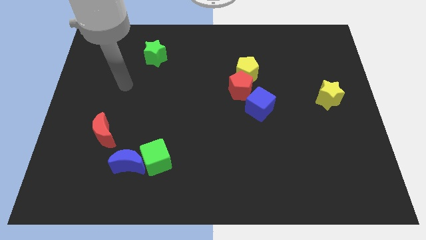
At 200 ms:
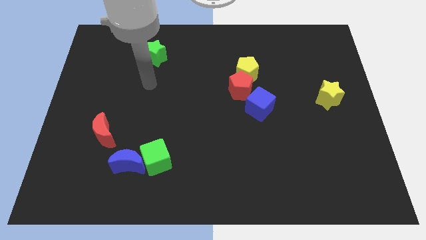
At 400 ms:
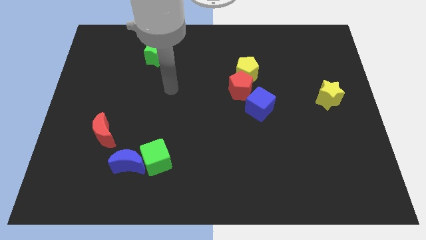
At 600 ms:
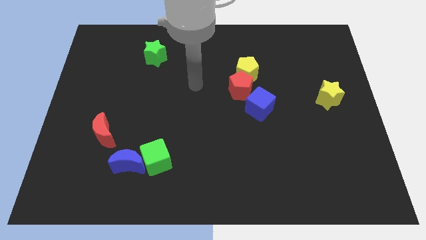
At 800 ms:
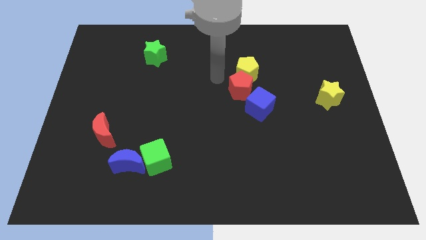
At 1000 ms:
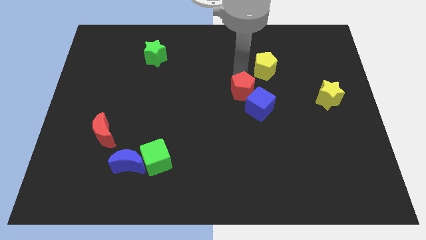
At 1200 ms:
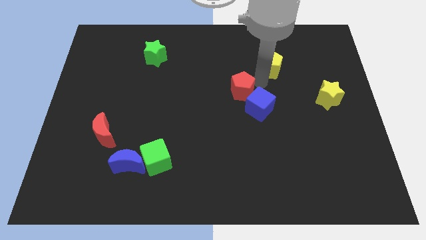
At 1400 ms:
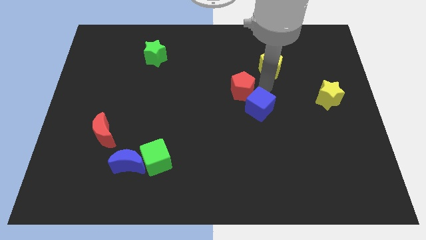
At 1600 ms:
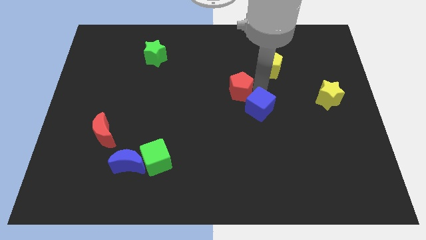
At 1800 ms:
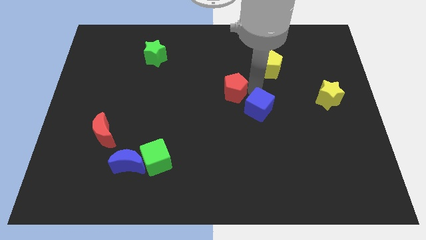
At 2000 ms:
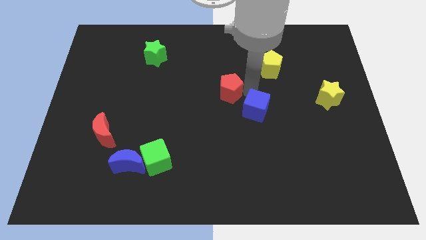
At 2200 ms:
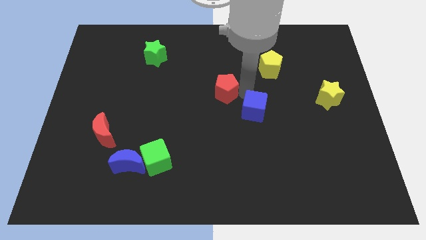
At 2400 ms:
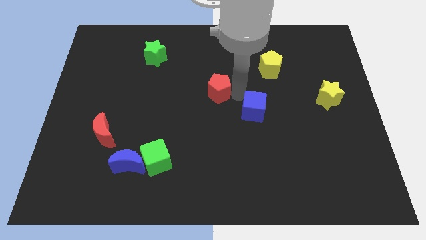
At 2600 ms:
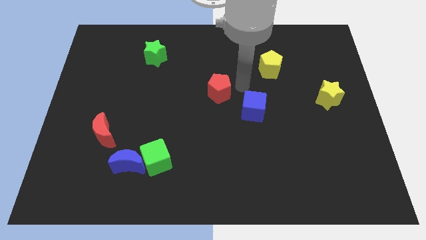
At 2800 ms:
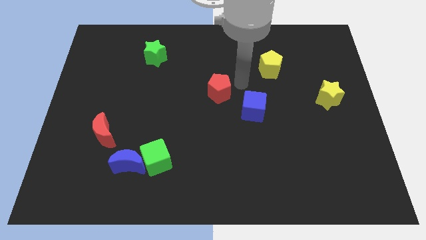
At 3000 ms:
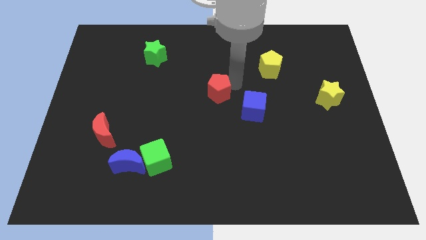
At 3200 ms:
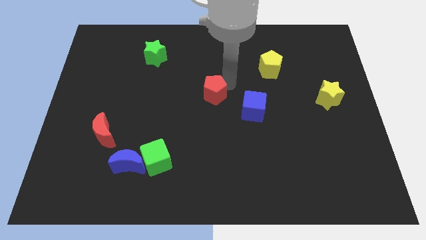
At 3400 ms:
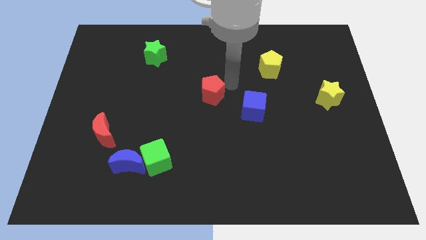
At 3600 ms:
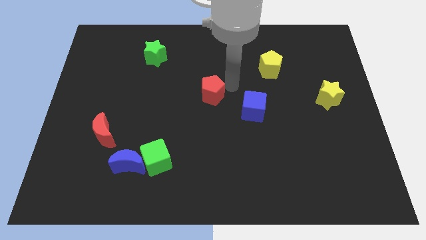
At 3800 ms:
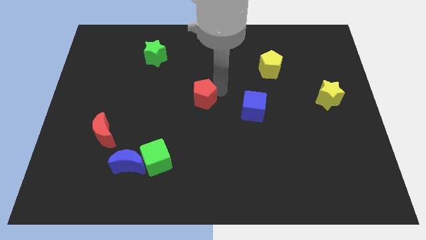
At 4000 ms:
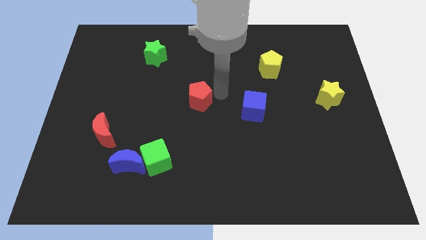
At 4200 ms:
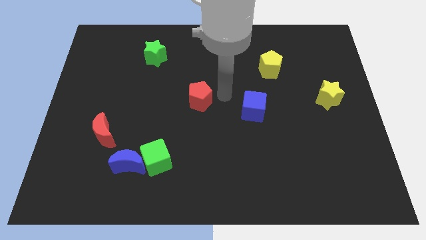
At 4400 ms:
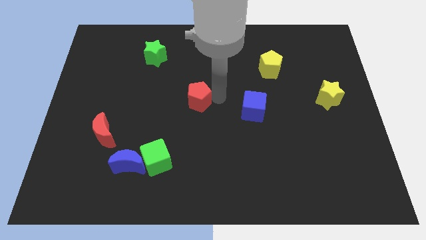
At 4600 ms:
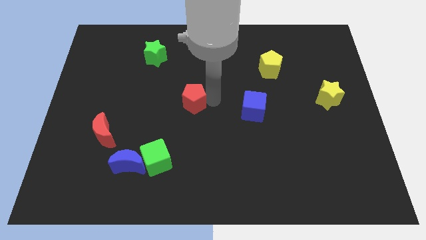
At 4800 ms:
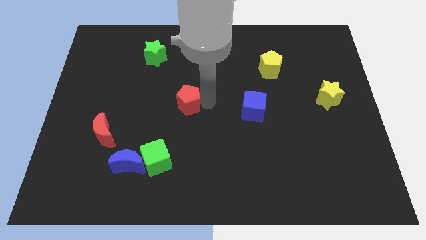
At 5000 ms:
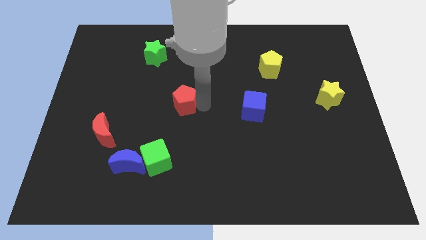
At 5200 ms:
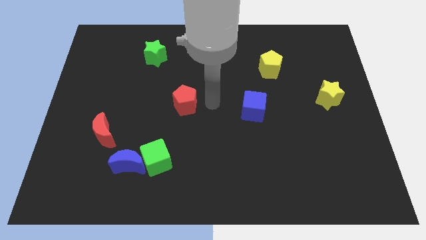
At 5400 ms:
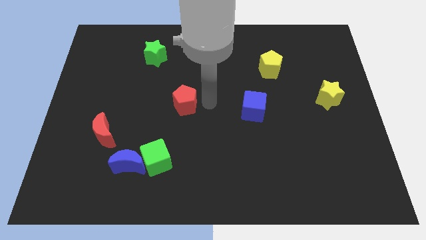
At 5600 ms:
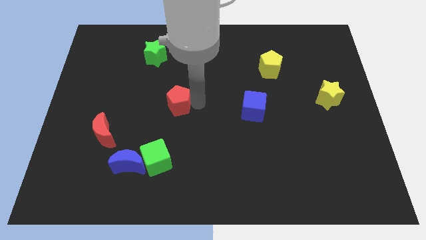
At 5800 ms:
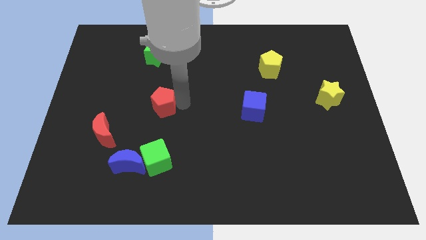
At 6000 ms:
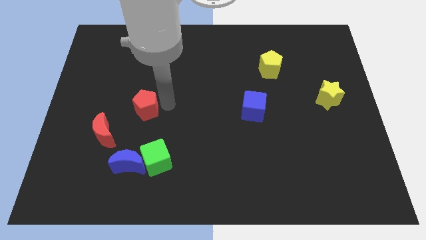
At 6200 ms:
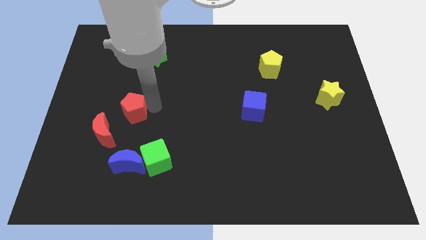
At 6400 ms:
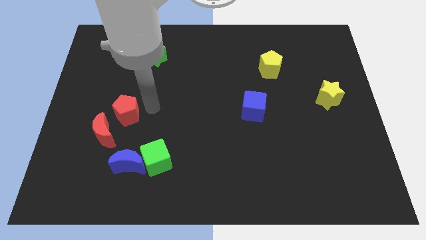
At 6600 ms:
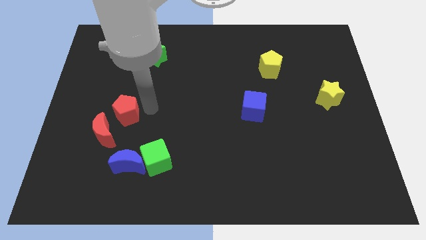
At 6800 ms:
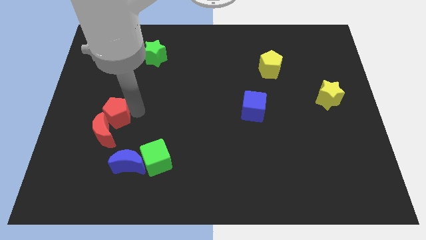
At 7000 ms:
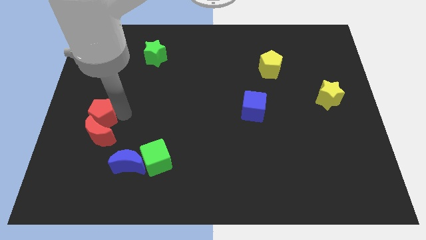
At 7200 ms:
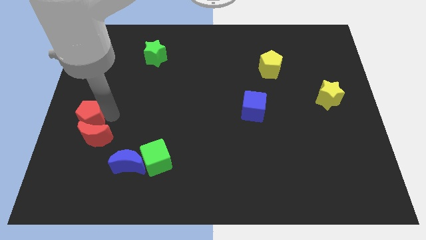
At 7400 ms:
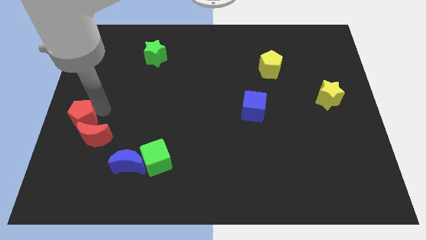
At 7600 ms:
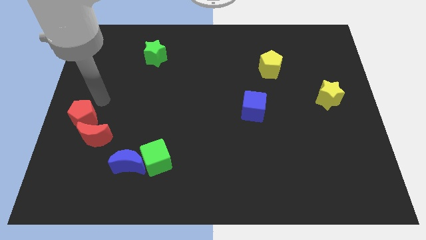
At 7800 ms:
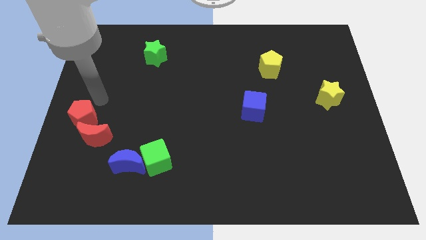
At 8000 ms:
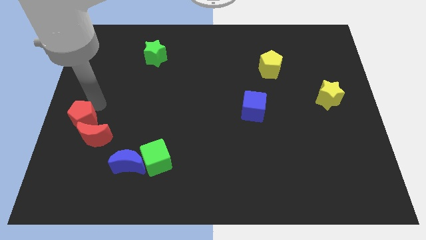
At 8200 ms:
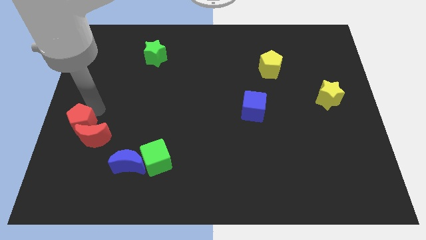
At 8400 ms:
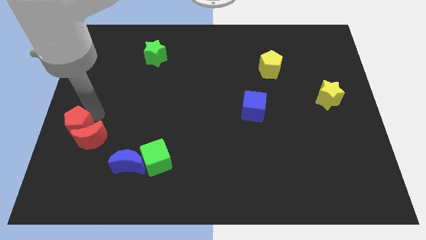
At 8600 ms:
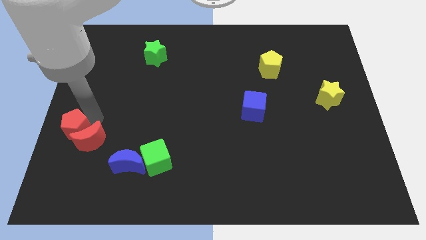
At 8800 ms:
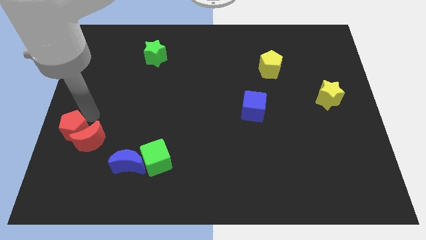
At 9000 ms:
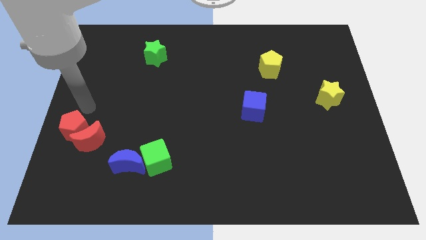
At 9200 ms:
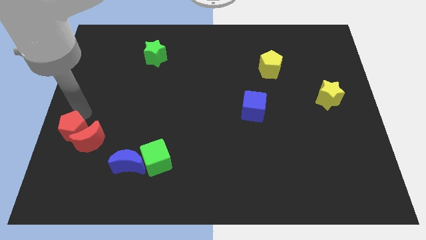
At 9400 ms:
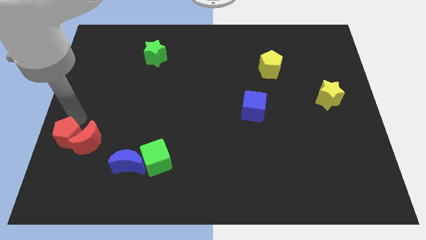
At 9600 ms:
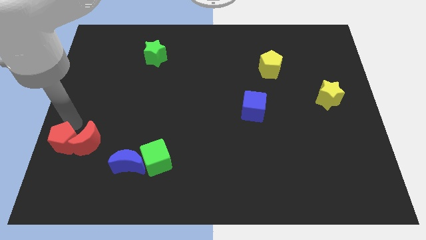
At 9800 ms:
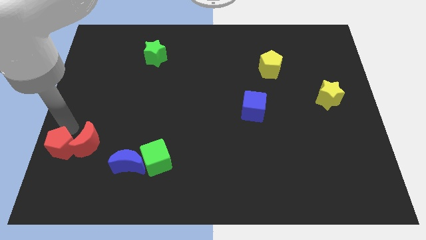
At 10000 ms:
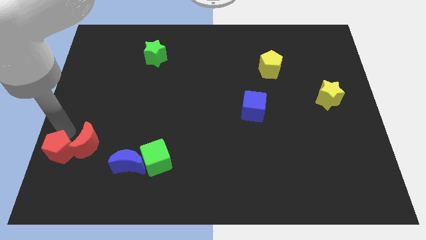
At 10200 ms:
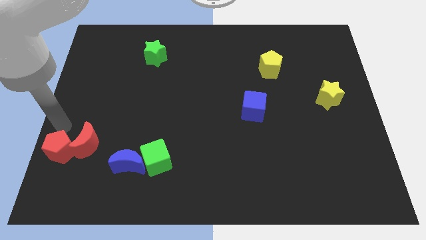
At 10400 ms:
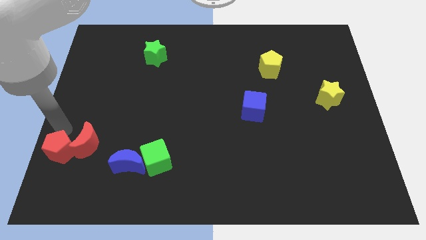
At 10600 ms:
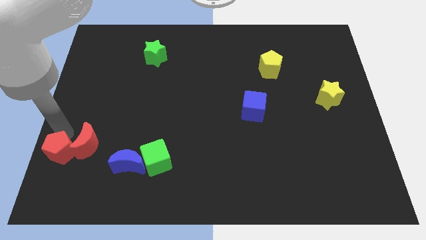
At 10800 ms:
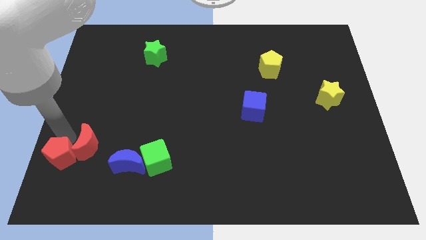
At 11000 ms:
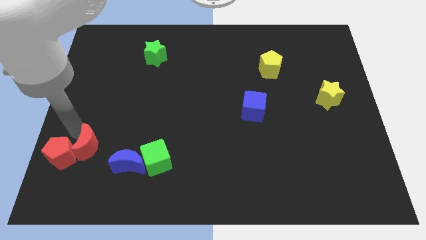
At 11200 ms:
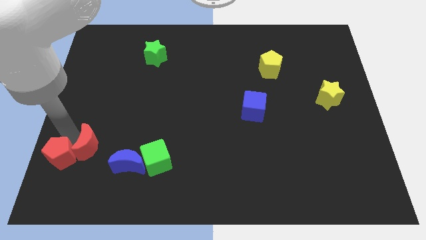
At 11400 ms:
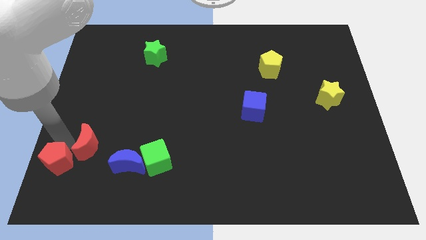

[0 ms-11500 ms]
put the red pentagon to the bottom left of the board

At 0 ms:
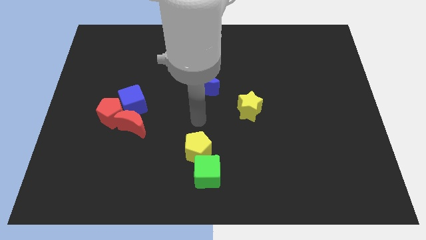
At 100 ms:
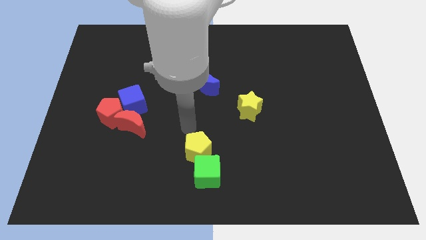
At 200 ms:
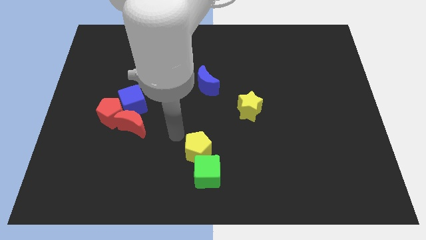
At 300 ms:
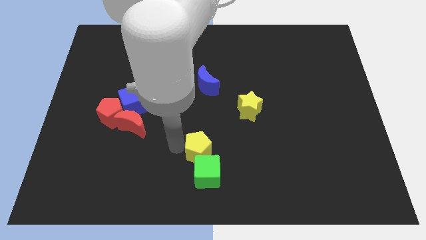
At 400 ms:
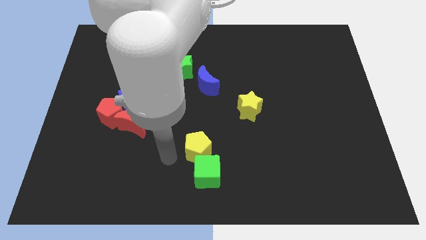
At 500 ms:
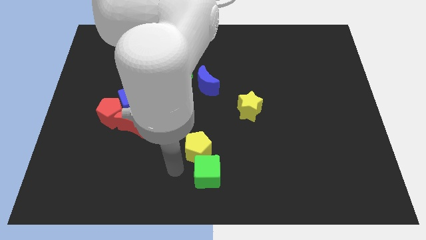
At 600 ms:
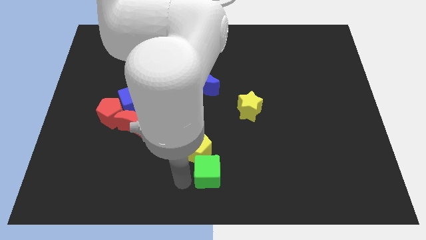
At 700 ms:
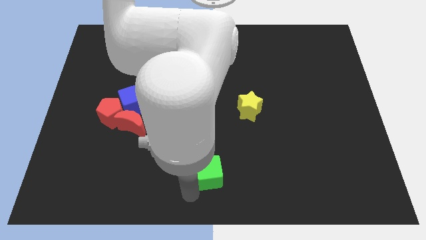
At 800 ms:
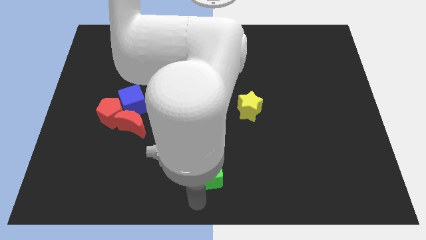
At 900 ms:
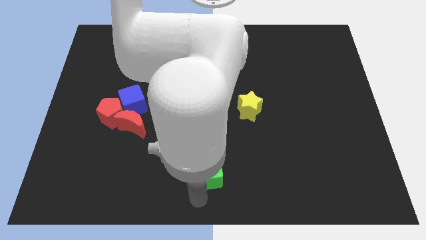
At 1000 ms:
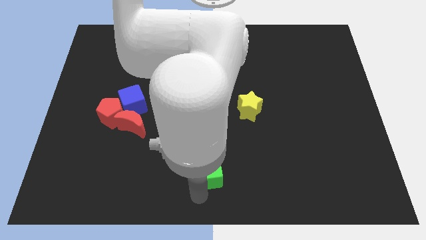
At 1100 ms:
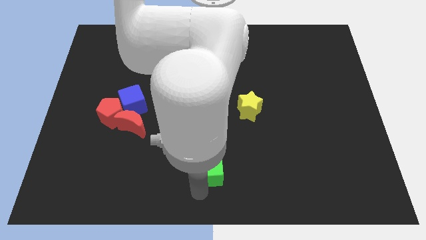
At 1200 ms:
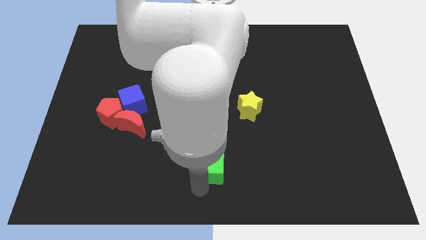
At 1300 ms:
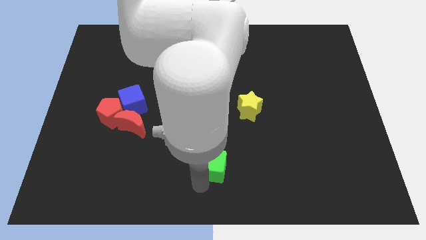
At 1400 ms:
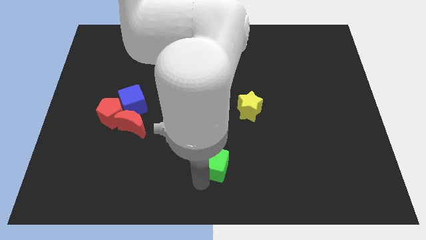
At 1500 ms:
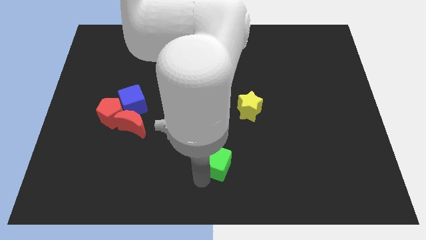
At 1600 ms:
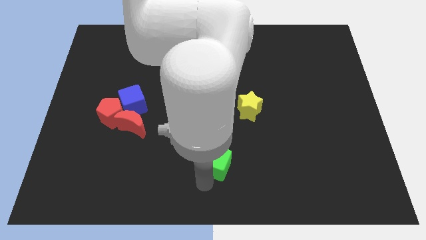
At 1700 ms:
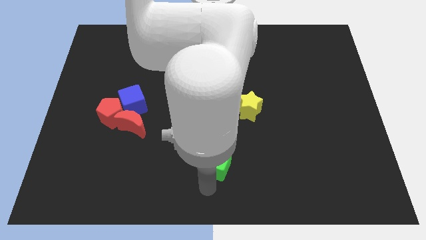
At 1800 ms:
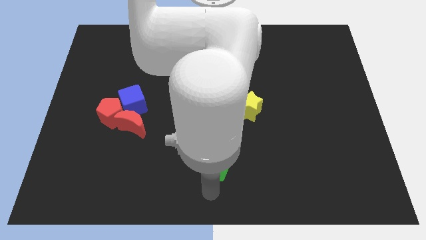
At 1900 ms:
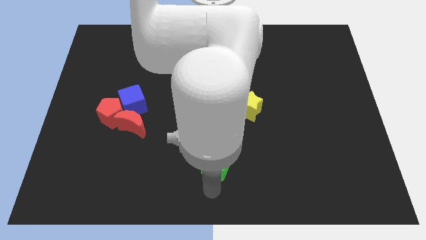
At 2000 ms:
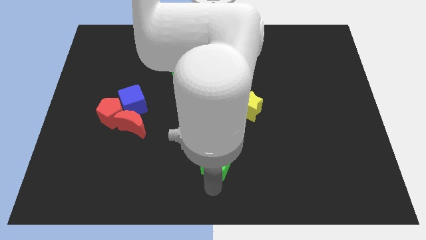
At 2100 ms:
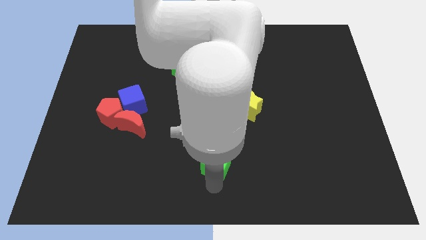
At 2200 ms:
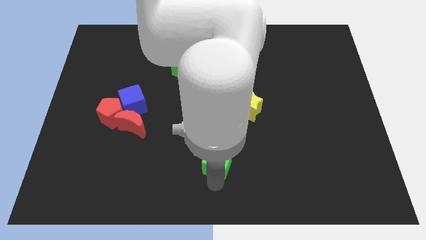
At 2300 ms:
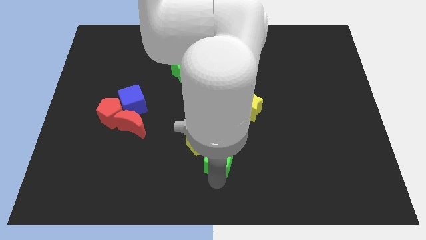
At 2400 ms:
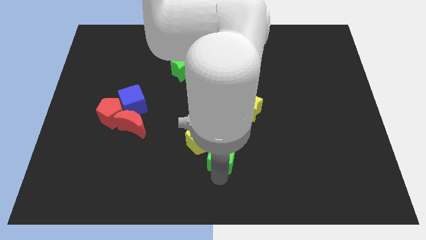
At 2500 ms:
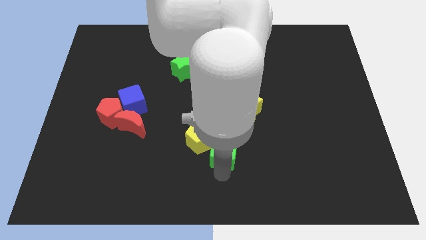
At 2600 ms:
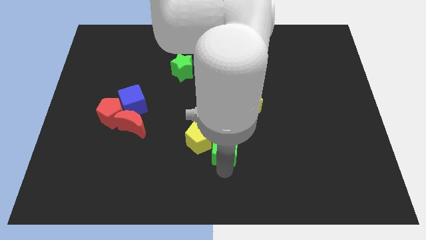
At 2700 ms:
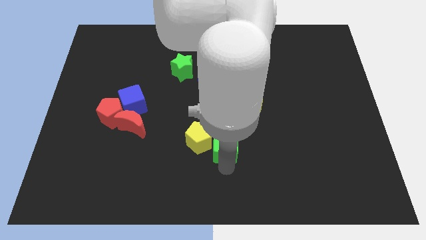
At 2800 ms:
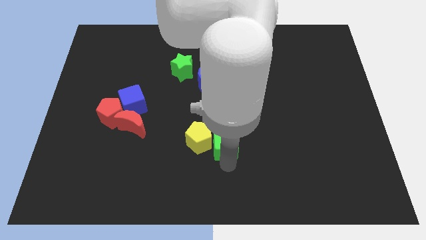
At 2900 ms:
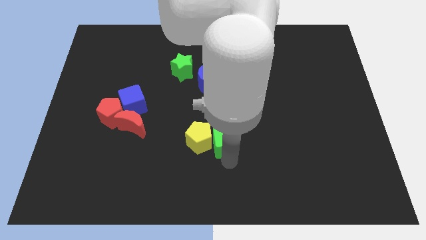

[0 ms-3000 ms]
move the green cube to the middle of the board
